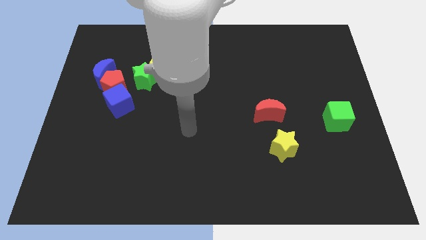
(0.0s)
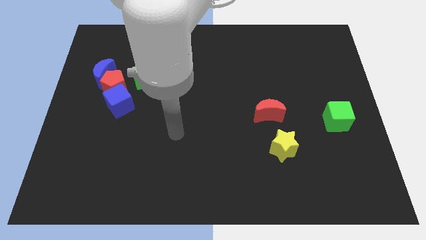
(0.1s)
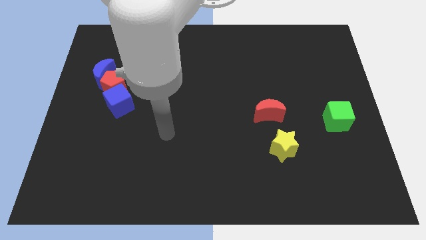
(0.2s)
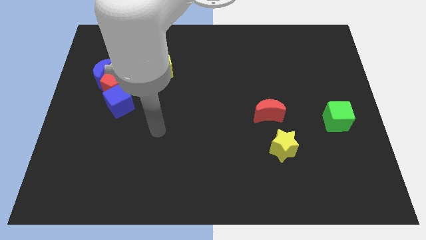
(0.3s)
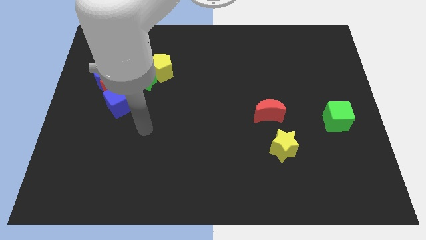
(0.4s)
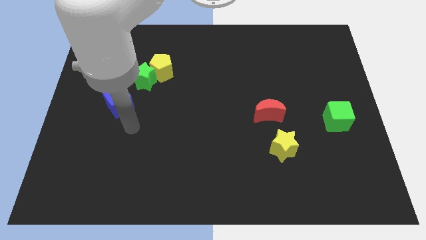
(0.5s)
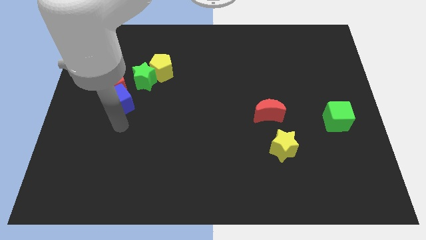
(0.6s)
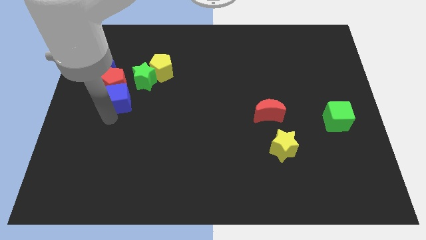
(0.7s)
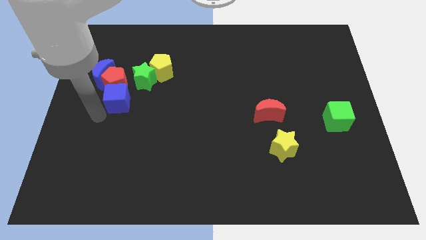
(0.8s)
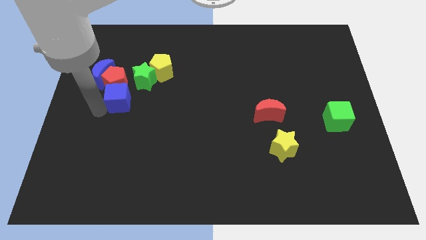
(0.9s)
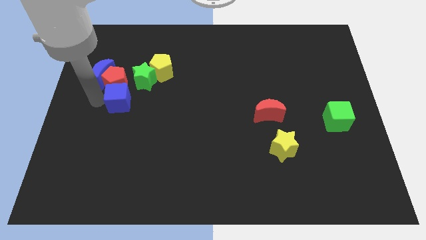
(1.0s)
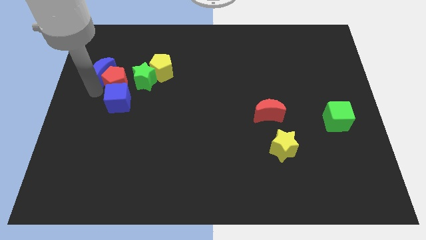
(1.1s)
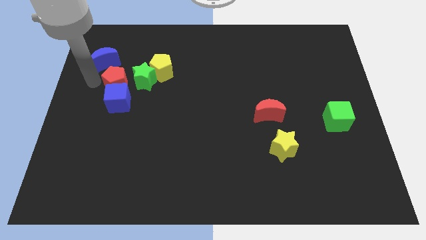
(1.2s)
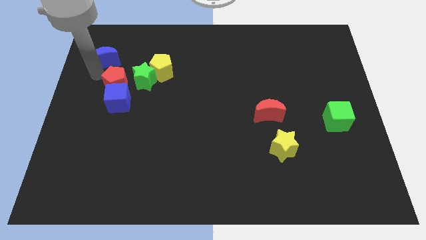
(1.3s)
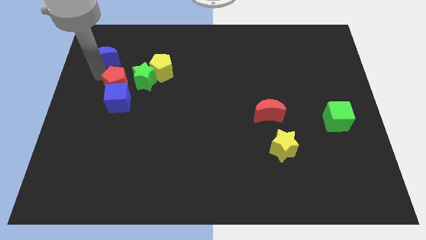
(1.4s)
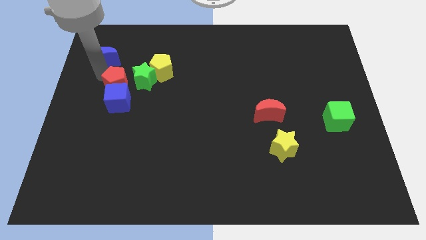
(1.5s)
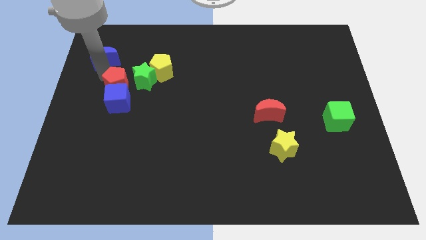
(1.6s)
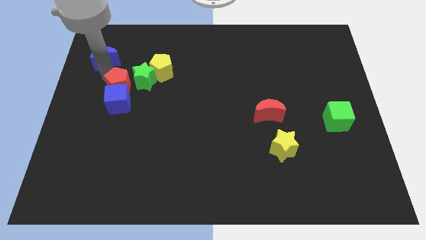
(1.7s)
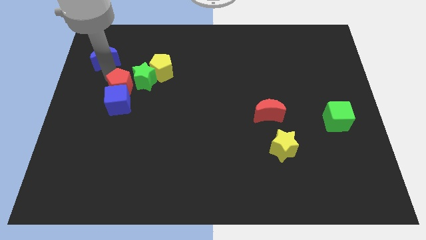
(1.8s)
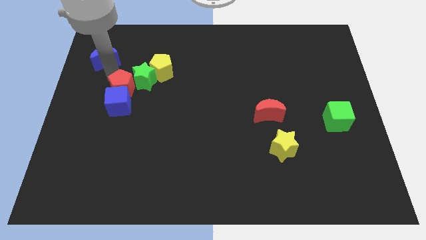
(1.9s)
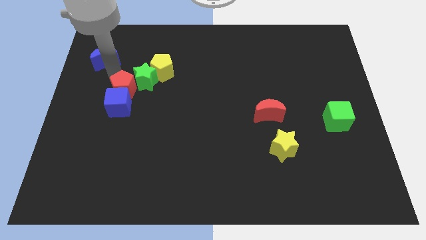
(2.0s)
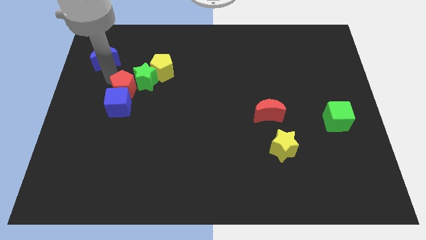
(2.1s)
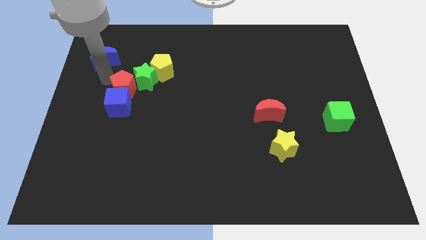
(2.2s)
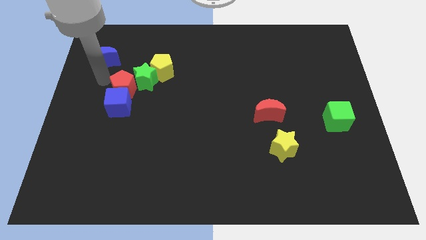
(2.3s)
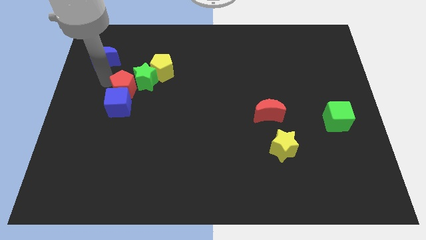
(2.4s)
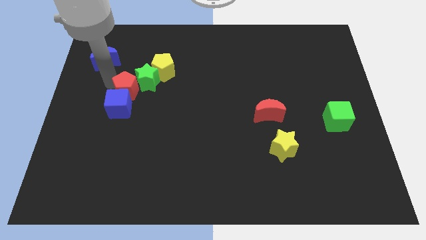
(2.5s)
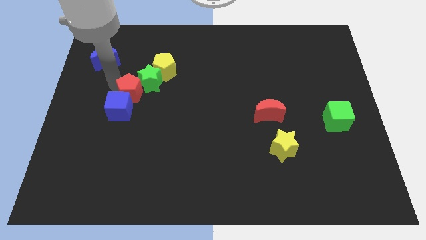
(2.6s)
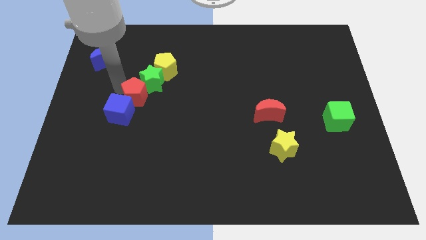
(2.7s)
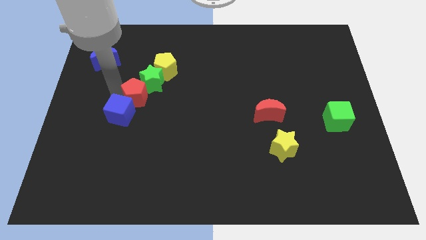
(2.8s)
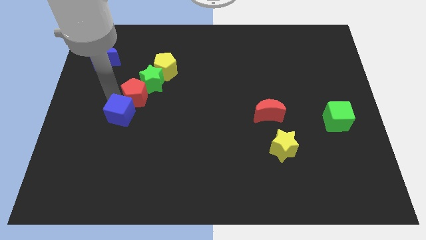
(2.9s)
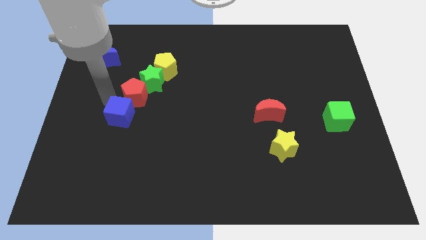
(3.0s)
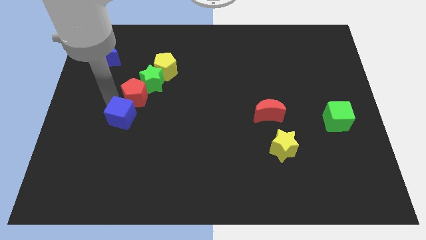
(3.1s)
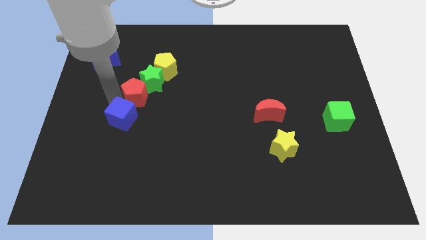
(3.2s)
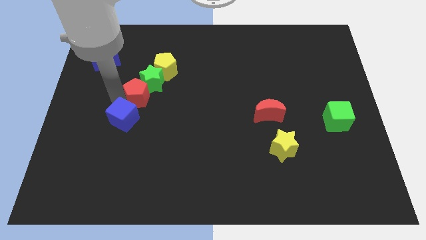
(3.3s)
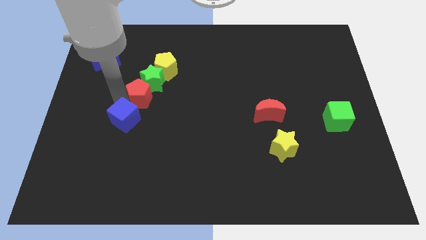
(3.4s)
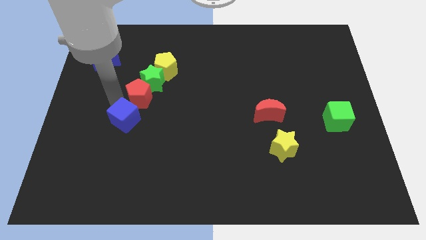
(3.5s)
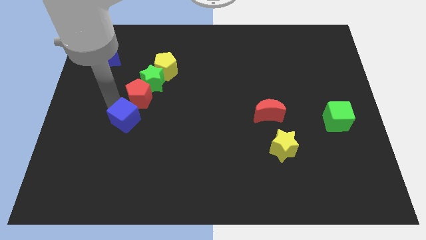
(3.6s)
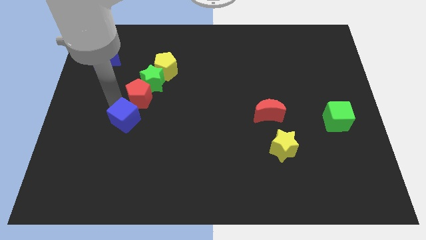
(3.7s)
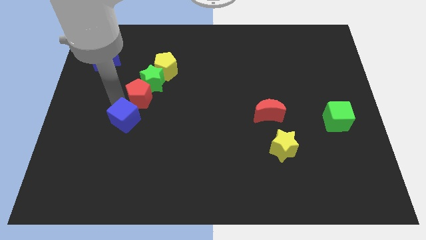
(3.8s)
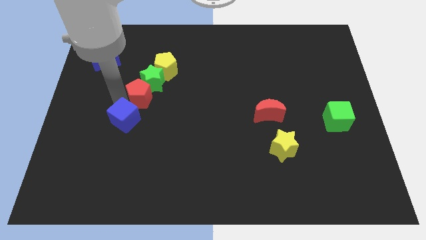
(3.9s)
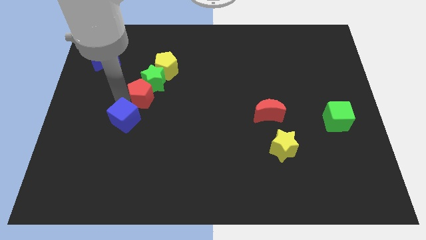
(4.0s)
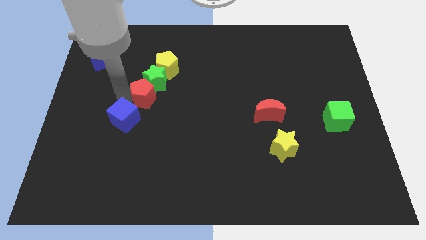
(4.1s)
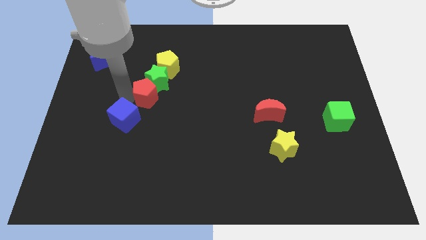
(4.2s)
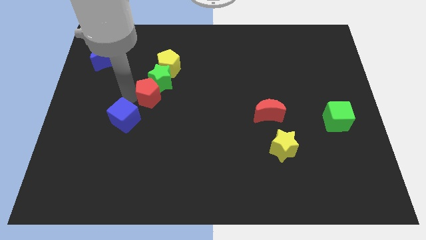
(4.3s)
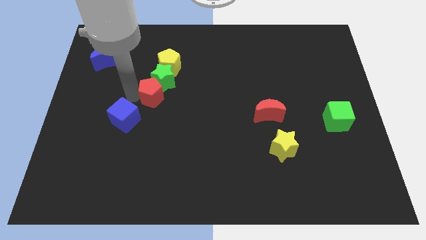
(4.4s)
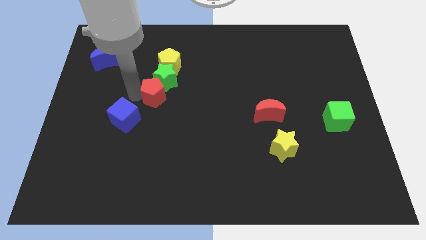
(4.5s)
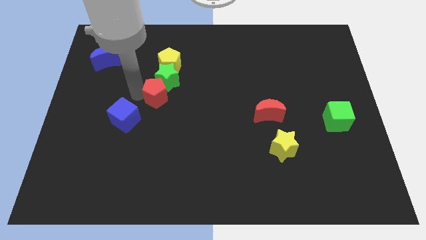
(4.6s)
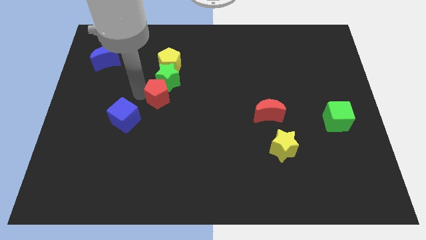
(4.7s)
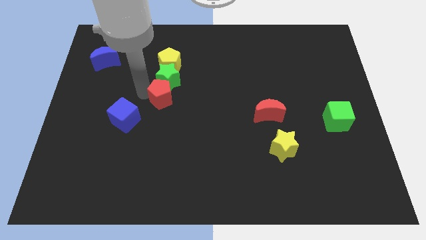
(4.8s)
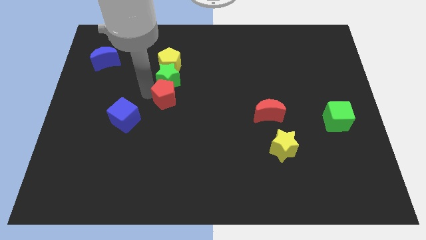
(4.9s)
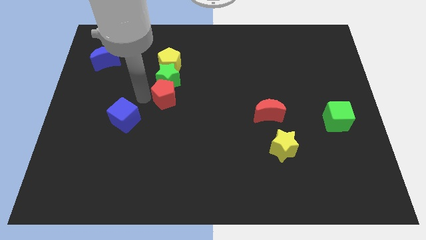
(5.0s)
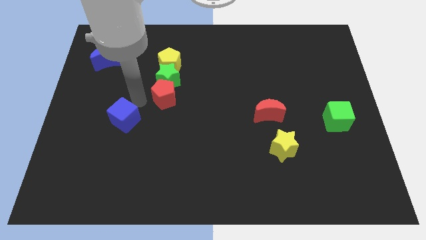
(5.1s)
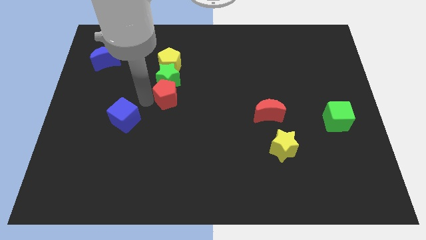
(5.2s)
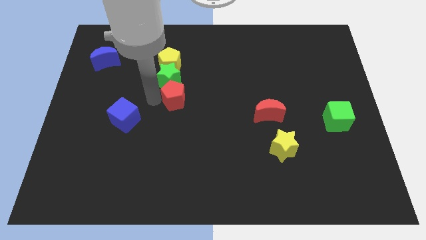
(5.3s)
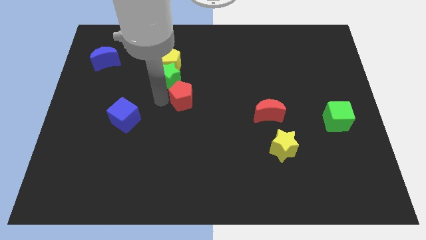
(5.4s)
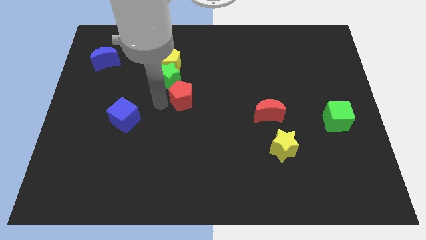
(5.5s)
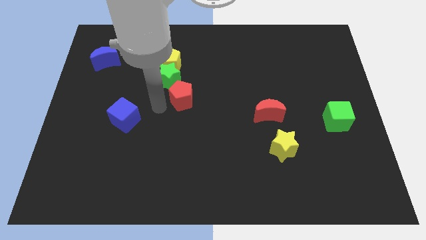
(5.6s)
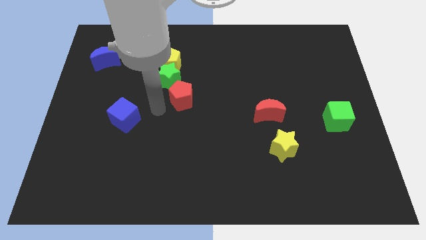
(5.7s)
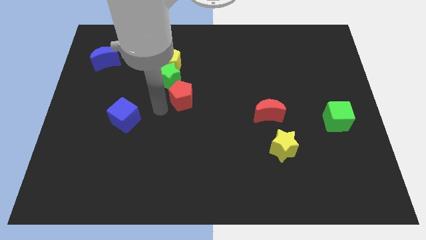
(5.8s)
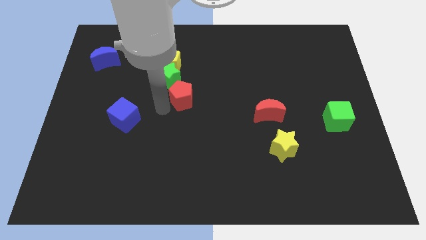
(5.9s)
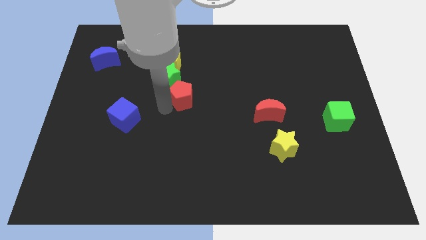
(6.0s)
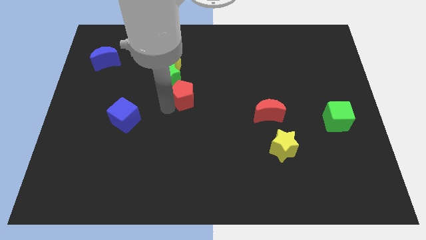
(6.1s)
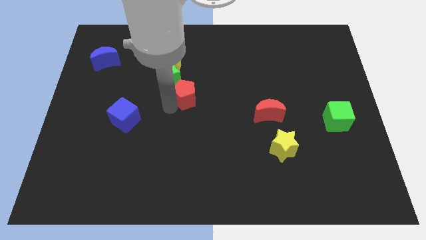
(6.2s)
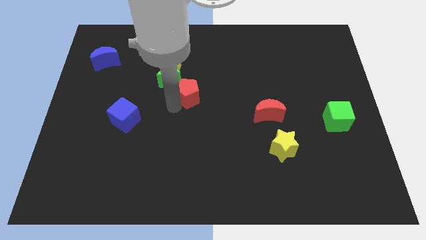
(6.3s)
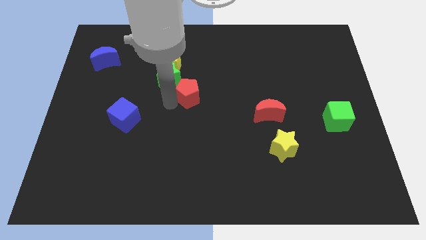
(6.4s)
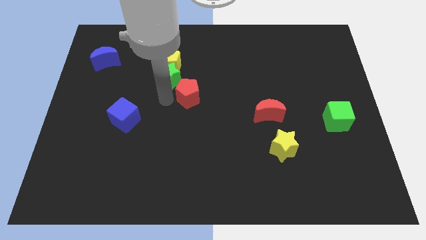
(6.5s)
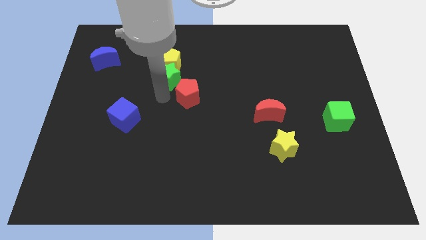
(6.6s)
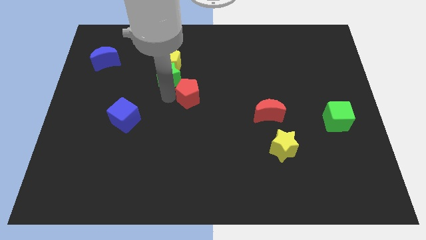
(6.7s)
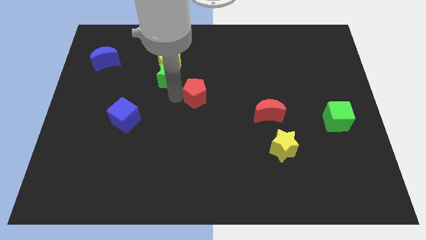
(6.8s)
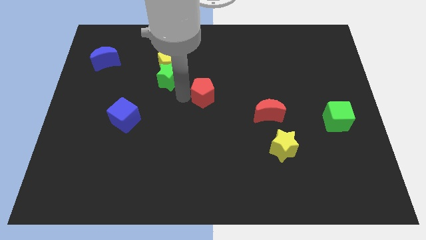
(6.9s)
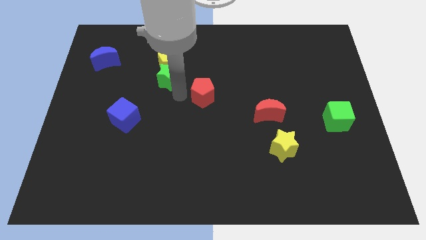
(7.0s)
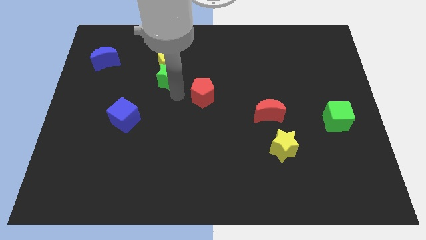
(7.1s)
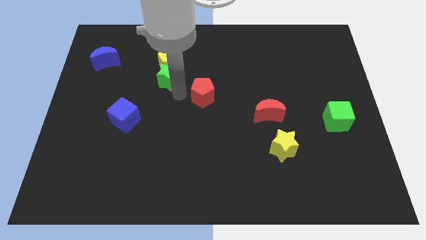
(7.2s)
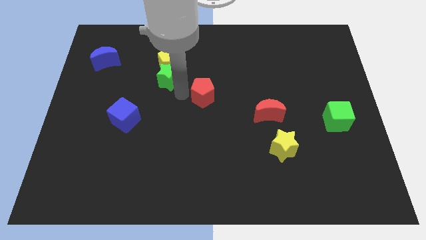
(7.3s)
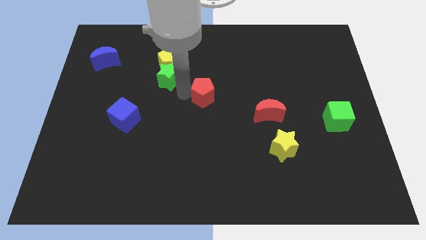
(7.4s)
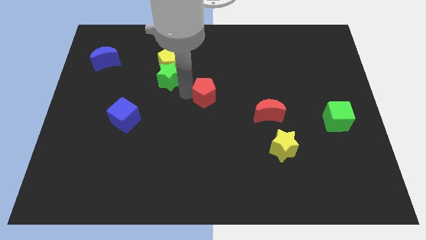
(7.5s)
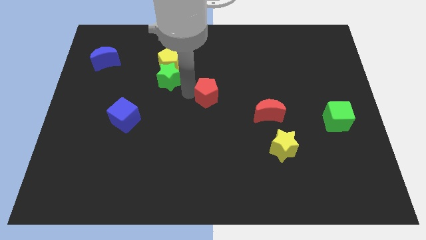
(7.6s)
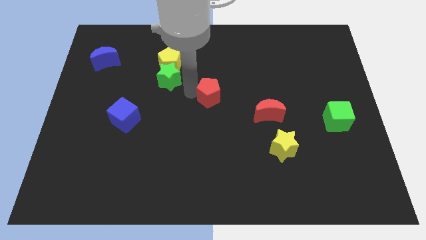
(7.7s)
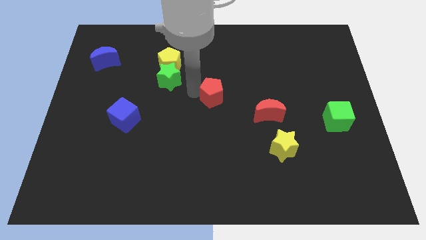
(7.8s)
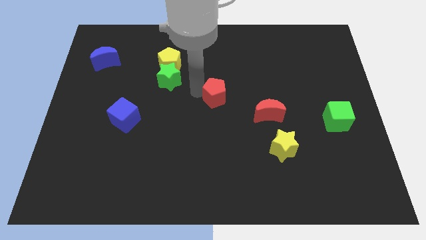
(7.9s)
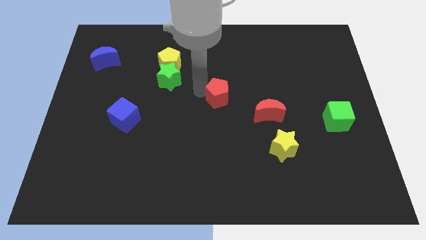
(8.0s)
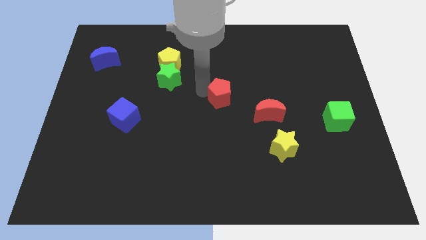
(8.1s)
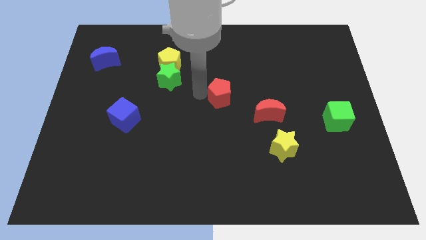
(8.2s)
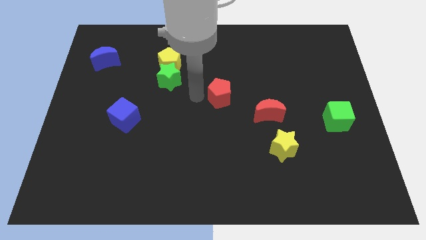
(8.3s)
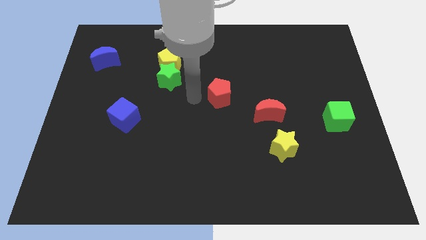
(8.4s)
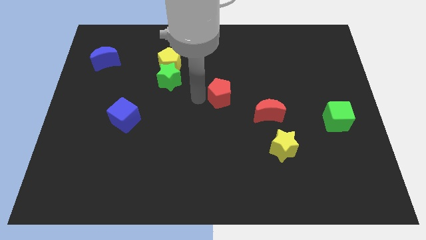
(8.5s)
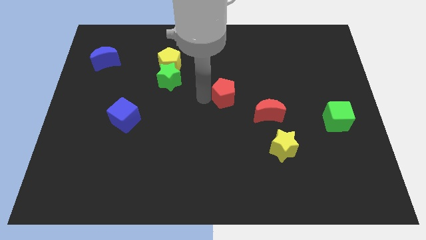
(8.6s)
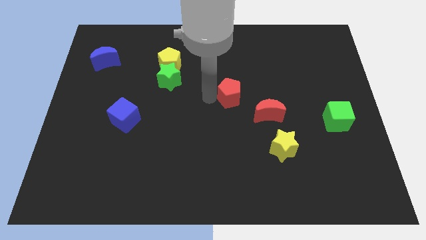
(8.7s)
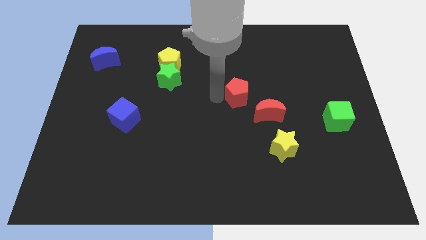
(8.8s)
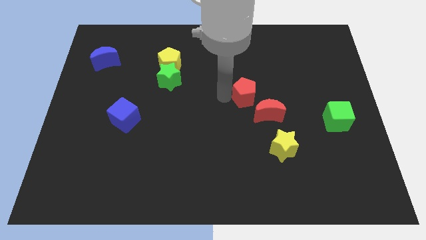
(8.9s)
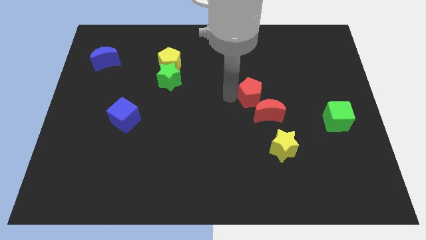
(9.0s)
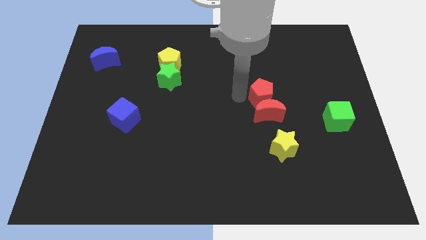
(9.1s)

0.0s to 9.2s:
move the red pentagon to the top right side of the red moon
